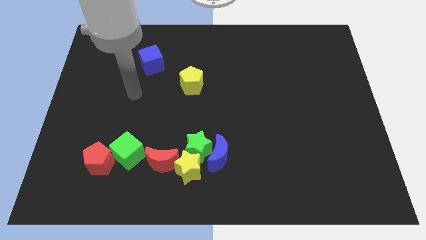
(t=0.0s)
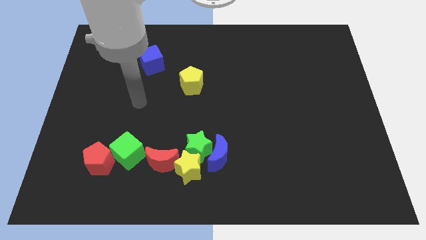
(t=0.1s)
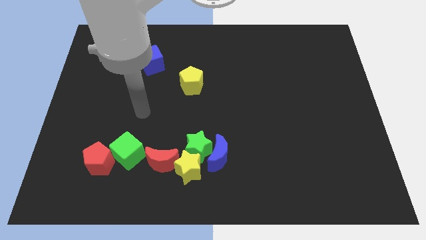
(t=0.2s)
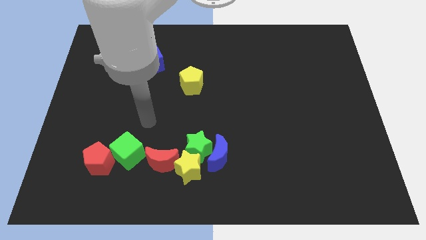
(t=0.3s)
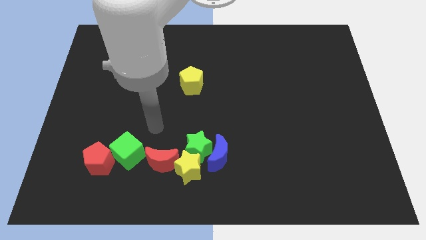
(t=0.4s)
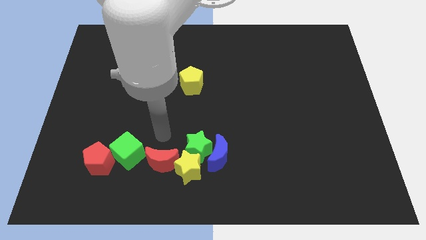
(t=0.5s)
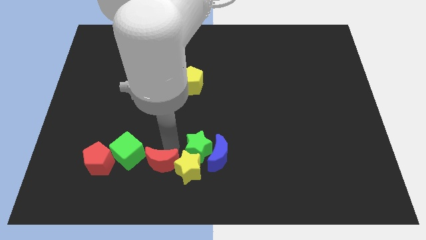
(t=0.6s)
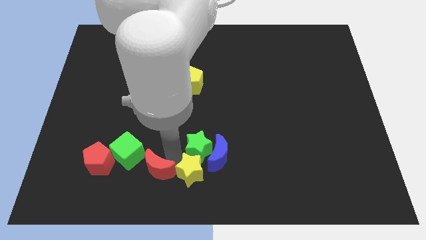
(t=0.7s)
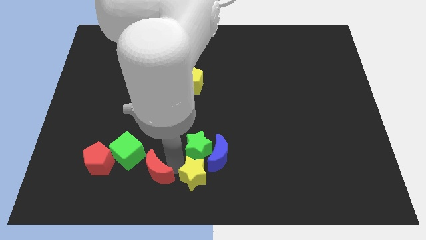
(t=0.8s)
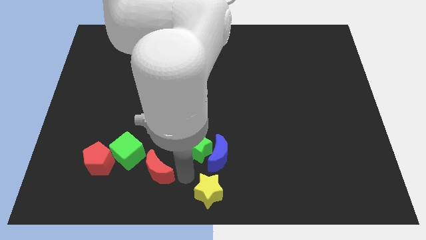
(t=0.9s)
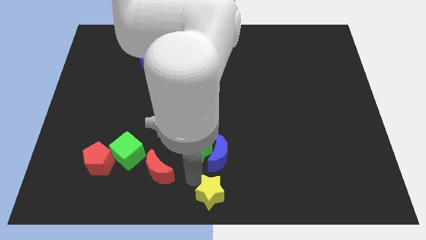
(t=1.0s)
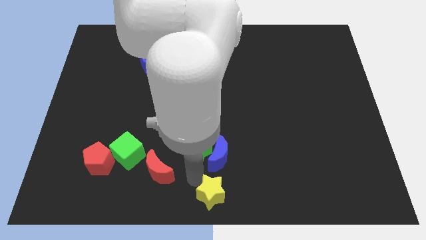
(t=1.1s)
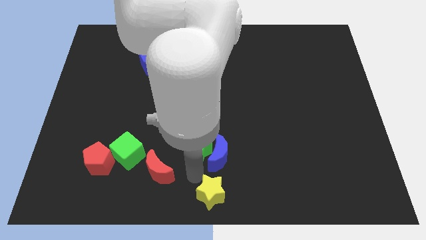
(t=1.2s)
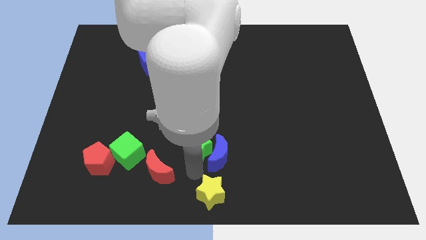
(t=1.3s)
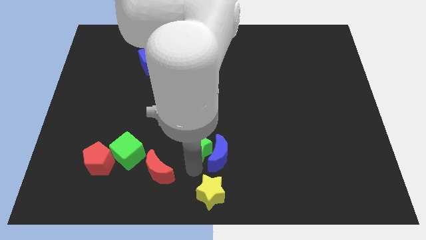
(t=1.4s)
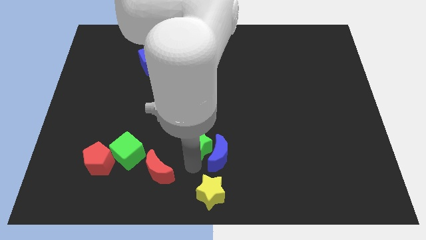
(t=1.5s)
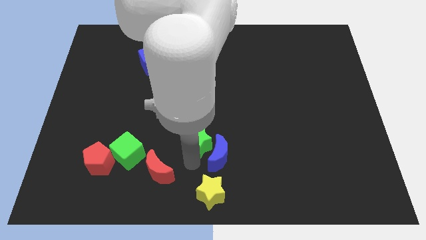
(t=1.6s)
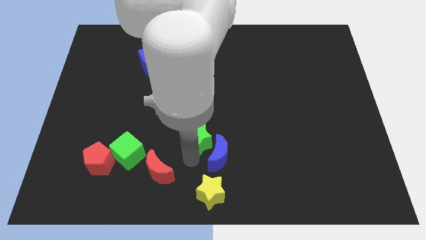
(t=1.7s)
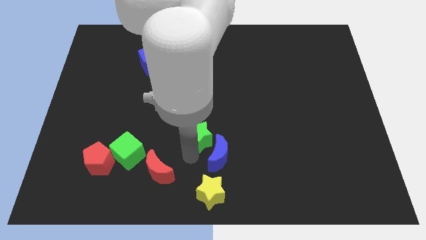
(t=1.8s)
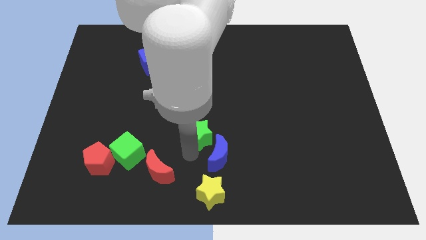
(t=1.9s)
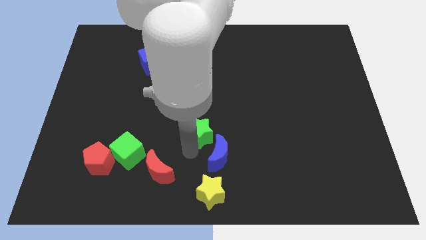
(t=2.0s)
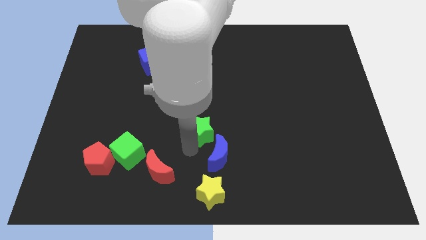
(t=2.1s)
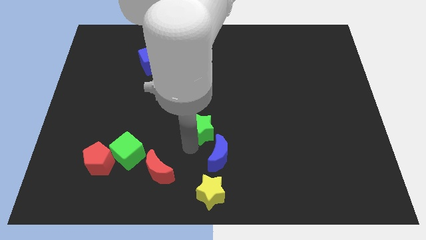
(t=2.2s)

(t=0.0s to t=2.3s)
pull the green star apart from the blue moon, yellow star, and red moon

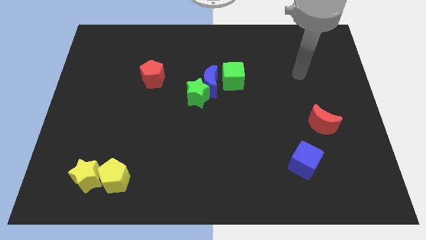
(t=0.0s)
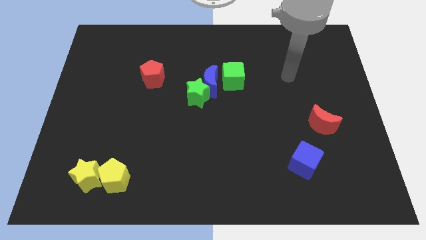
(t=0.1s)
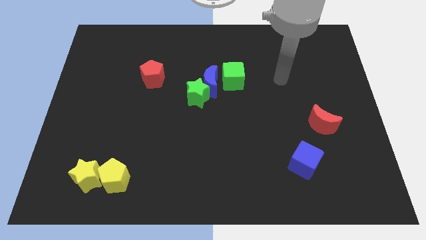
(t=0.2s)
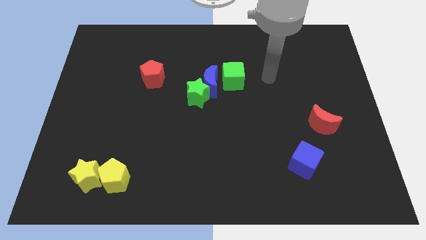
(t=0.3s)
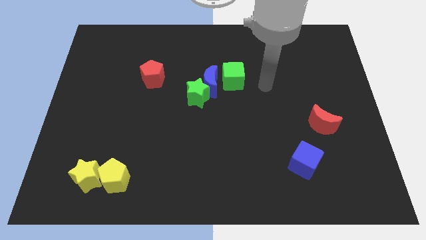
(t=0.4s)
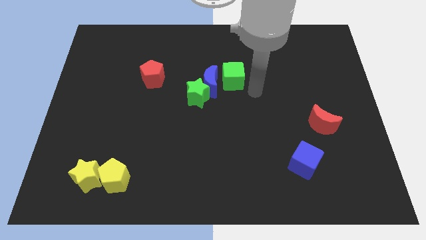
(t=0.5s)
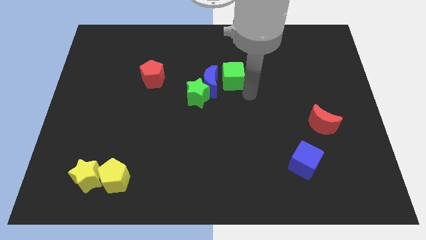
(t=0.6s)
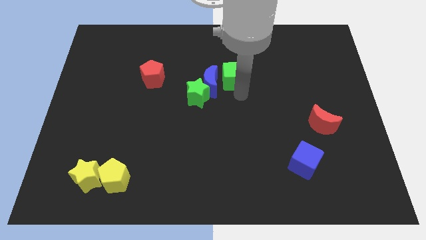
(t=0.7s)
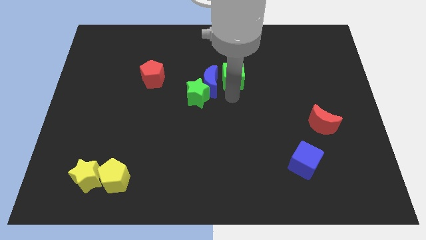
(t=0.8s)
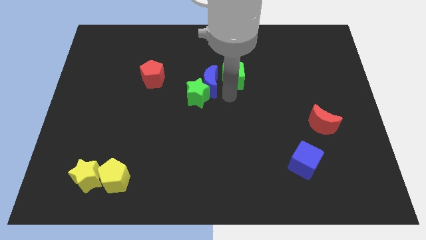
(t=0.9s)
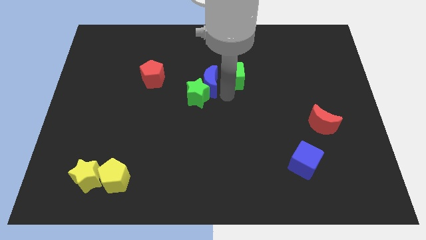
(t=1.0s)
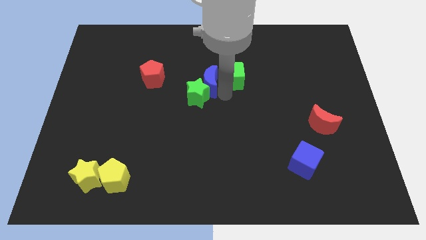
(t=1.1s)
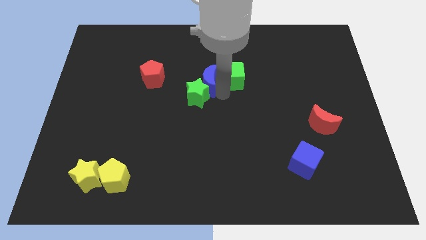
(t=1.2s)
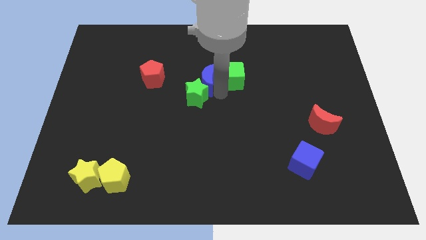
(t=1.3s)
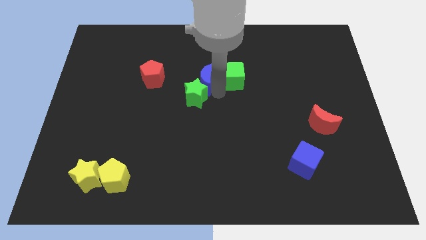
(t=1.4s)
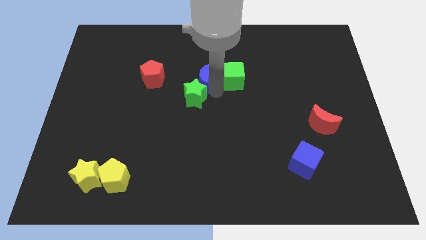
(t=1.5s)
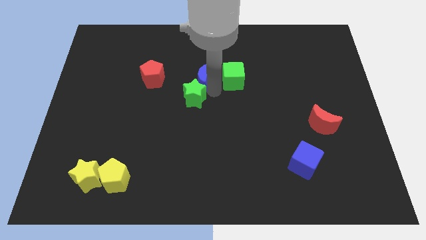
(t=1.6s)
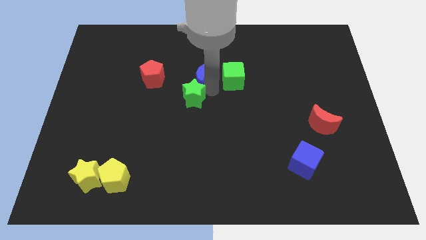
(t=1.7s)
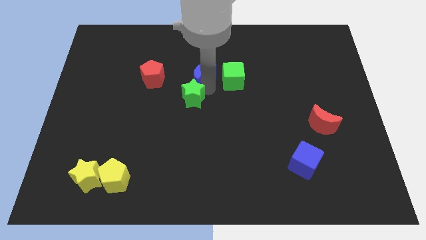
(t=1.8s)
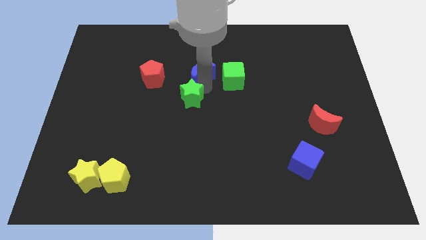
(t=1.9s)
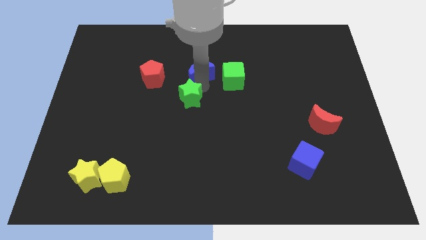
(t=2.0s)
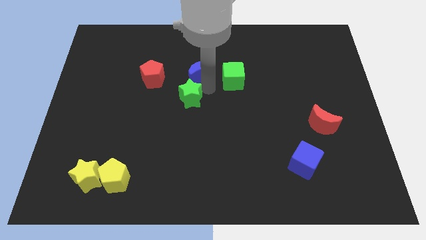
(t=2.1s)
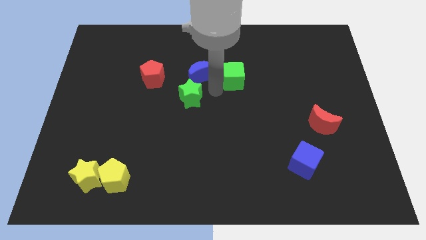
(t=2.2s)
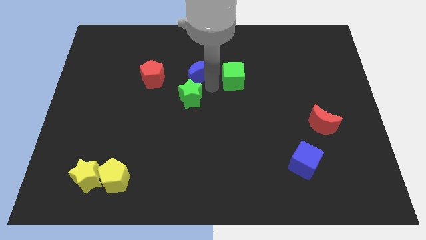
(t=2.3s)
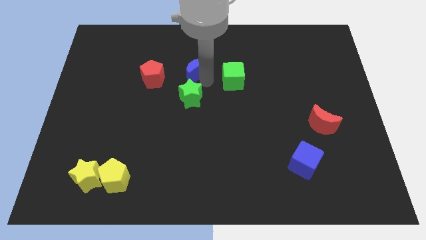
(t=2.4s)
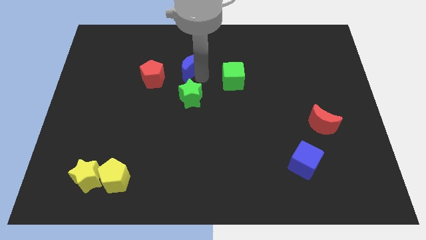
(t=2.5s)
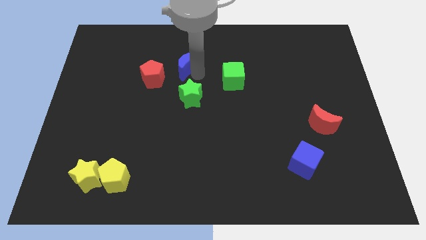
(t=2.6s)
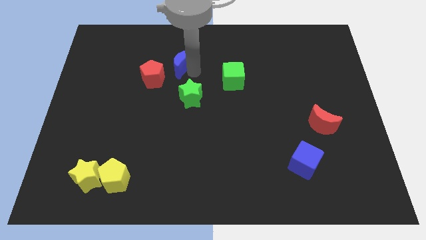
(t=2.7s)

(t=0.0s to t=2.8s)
move the blue moon away from the green star and green cube

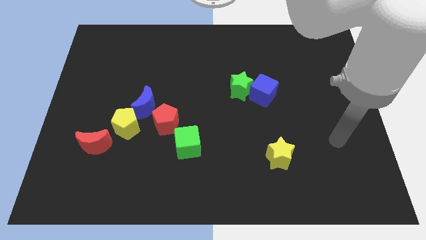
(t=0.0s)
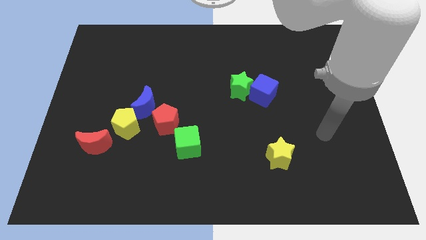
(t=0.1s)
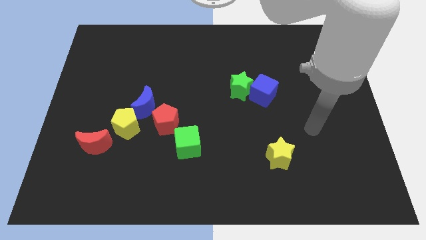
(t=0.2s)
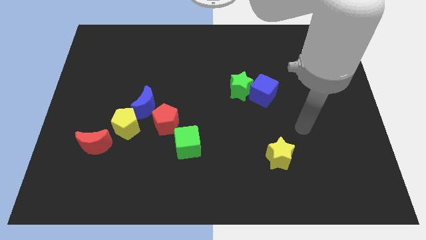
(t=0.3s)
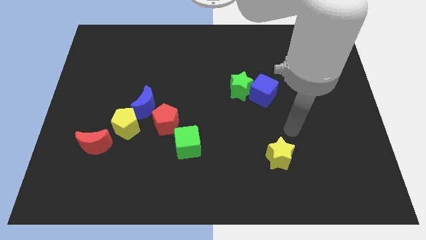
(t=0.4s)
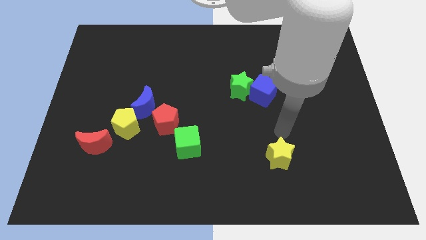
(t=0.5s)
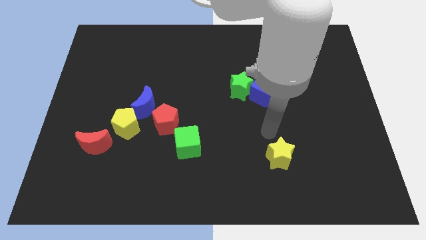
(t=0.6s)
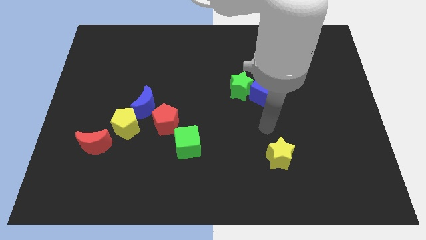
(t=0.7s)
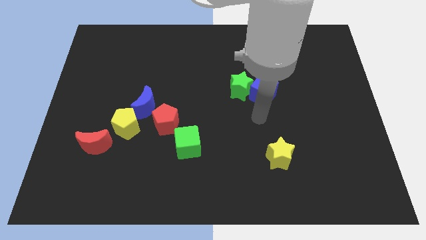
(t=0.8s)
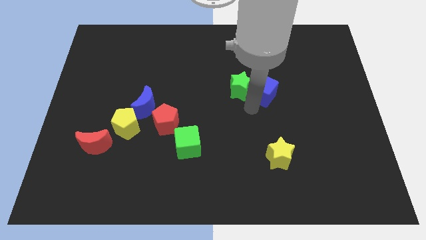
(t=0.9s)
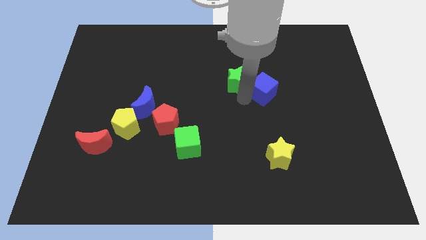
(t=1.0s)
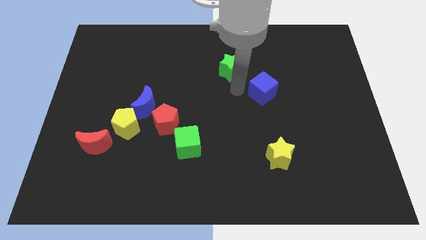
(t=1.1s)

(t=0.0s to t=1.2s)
separate the blue cube from the green star

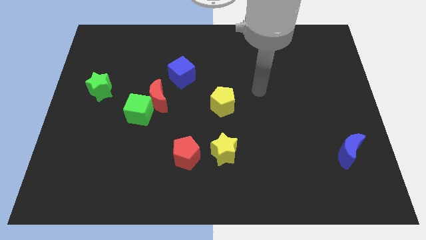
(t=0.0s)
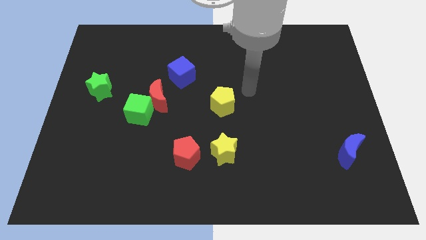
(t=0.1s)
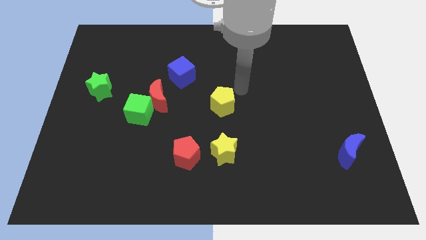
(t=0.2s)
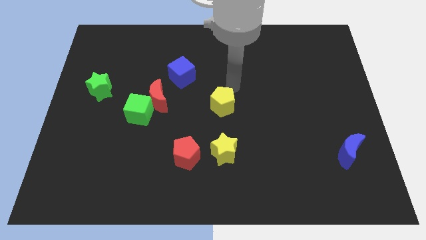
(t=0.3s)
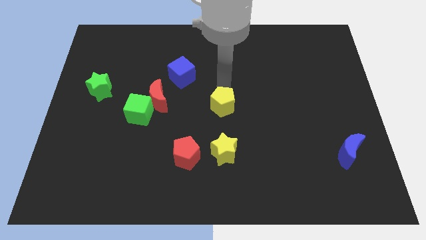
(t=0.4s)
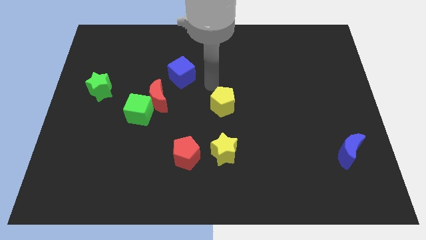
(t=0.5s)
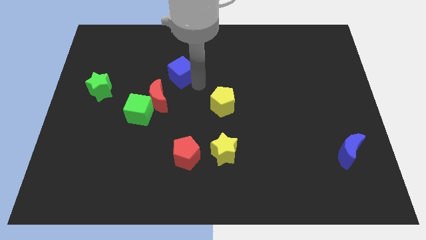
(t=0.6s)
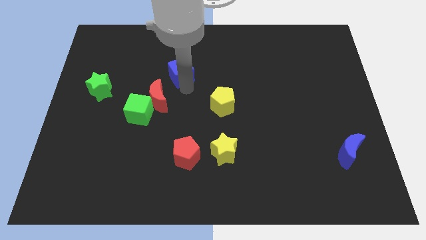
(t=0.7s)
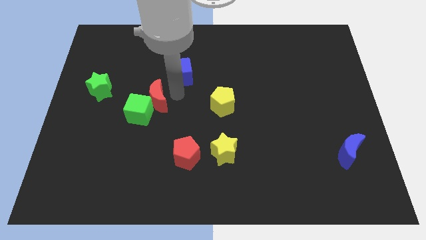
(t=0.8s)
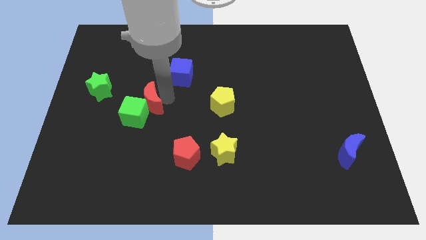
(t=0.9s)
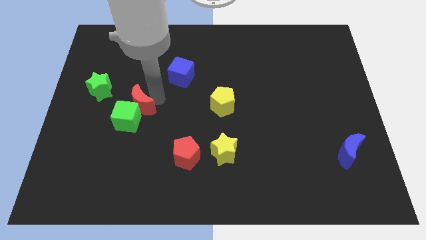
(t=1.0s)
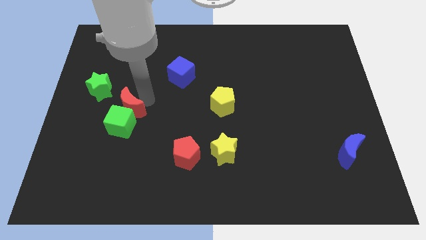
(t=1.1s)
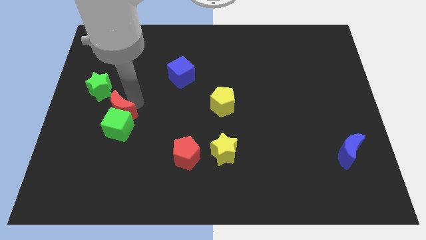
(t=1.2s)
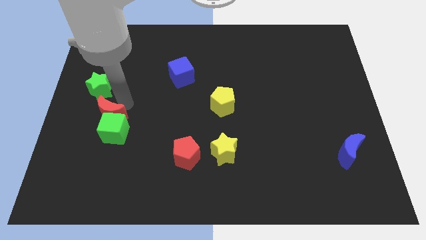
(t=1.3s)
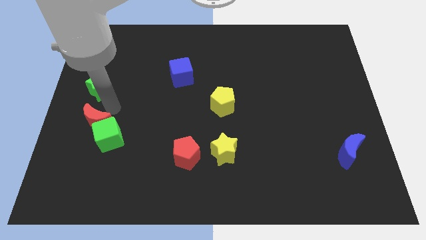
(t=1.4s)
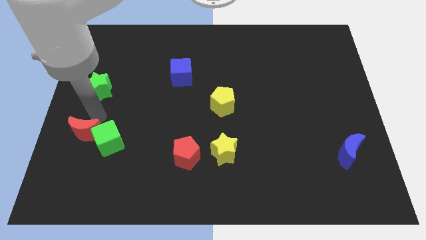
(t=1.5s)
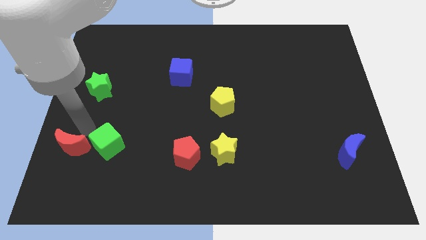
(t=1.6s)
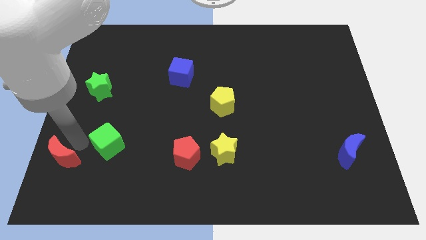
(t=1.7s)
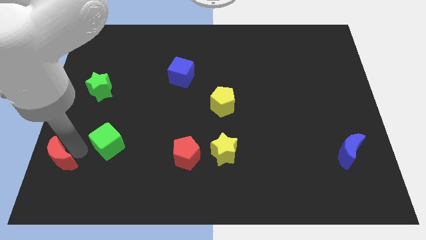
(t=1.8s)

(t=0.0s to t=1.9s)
pull the green cube apart from the red moon

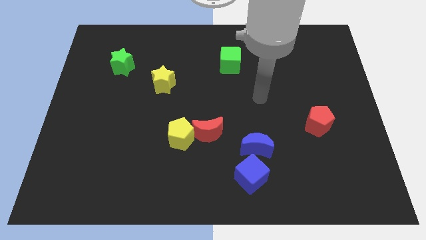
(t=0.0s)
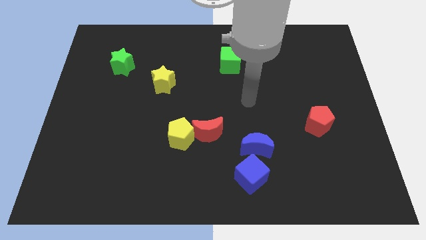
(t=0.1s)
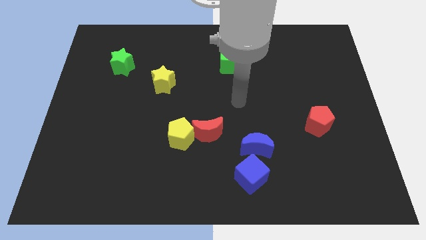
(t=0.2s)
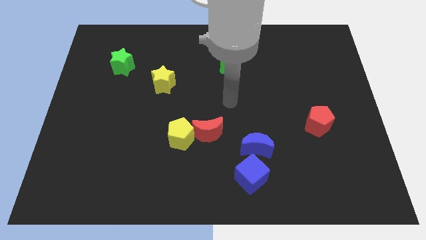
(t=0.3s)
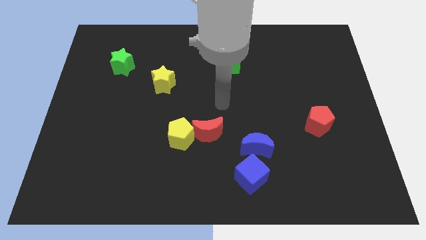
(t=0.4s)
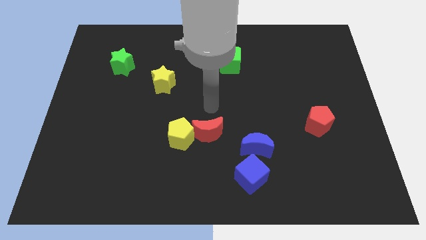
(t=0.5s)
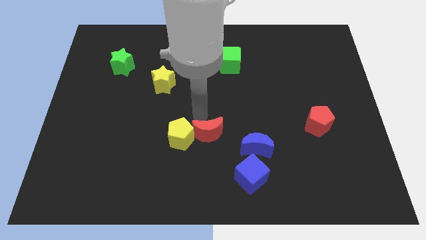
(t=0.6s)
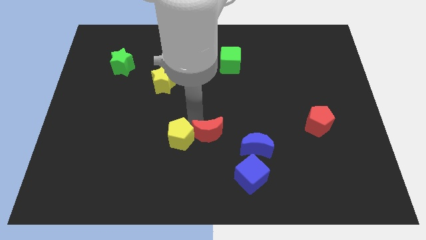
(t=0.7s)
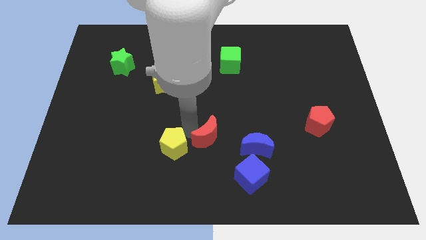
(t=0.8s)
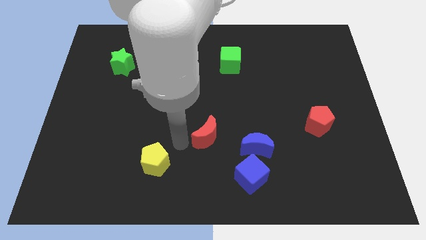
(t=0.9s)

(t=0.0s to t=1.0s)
separate the red moon from the yellow pentagon
